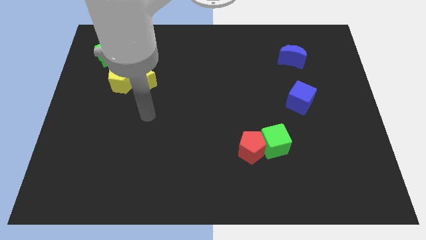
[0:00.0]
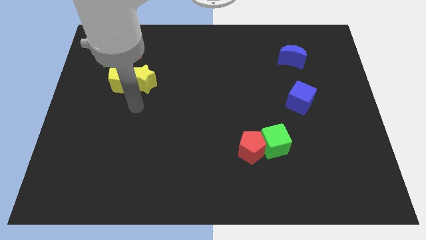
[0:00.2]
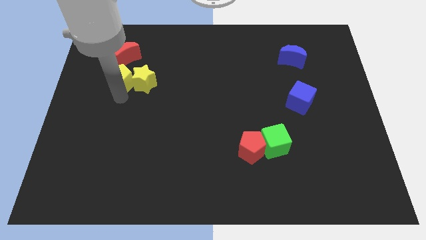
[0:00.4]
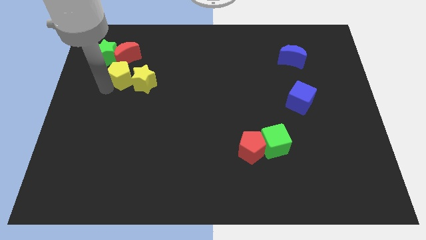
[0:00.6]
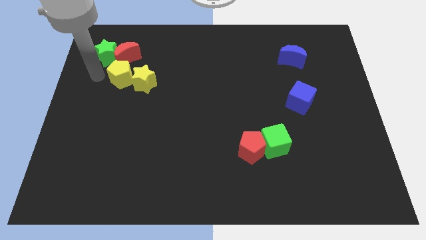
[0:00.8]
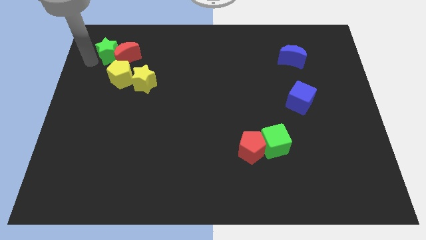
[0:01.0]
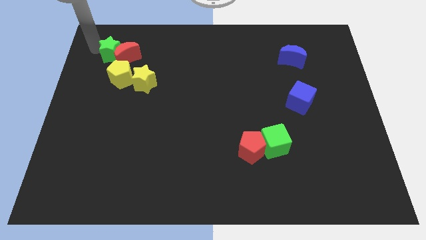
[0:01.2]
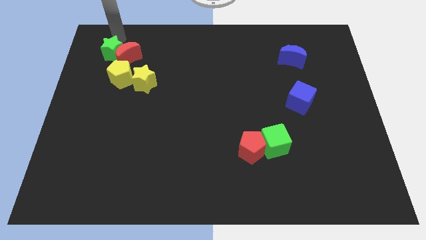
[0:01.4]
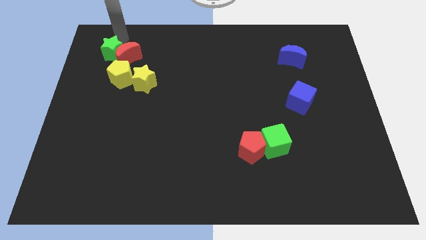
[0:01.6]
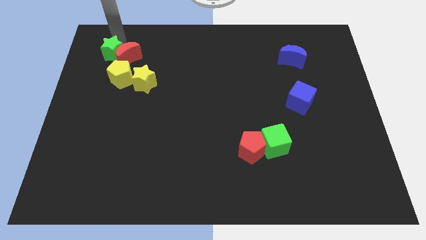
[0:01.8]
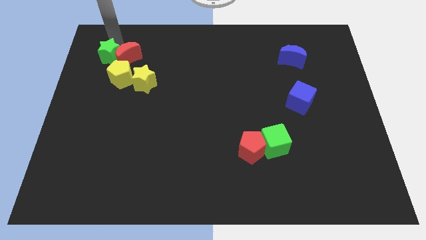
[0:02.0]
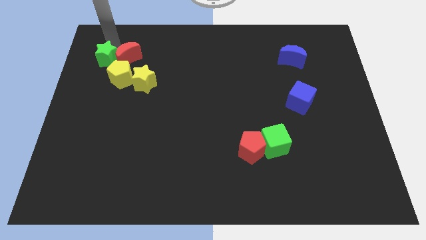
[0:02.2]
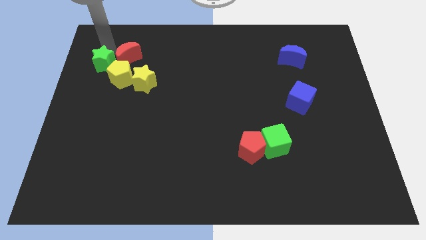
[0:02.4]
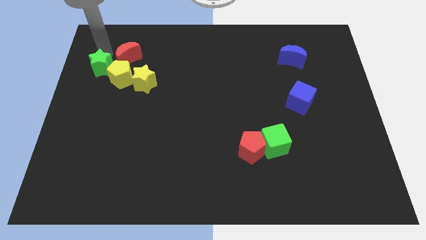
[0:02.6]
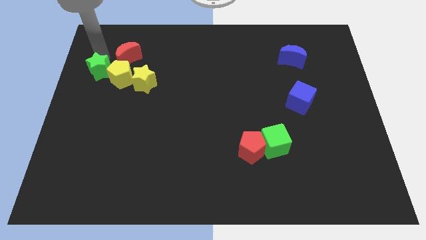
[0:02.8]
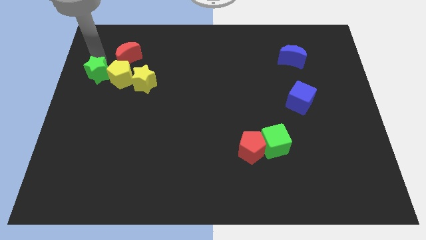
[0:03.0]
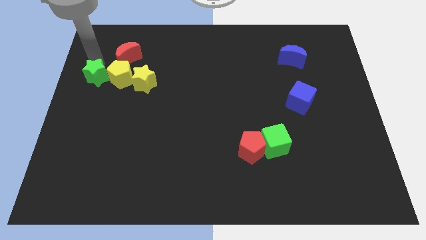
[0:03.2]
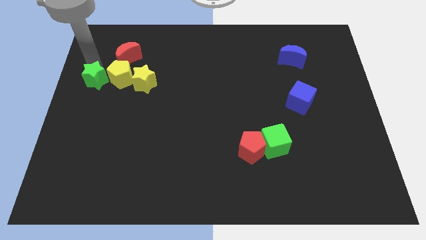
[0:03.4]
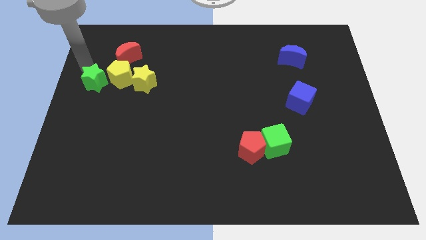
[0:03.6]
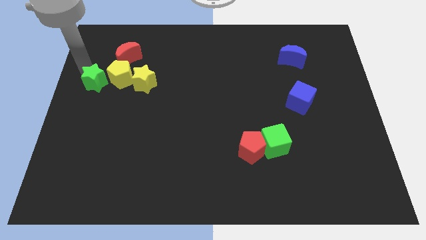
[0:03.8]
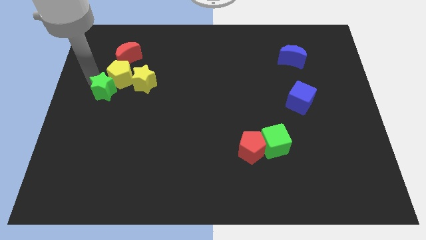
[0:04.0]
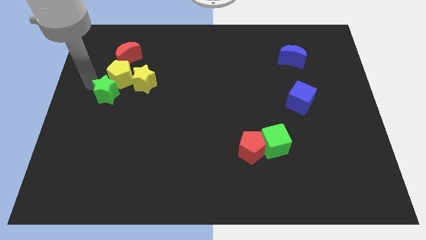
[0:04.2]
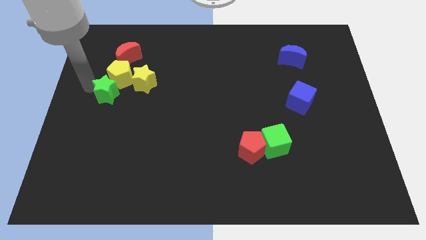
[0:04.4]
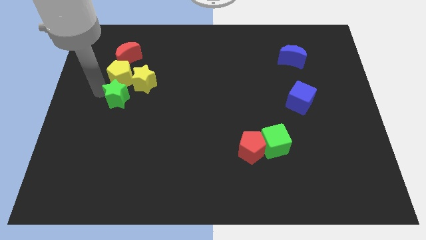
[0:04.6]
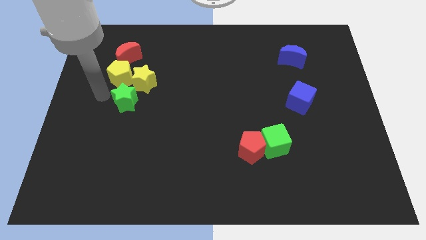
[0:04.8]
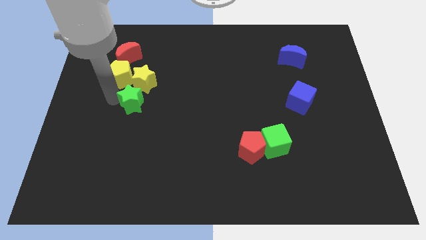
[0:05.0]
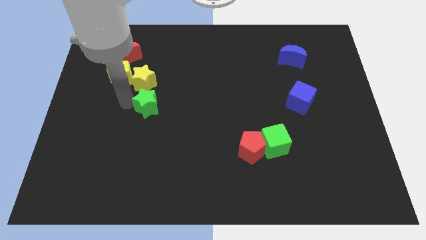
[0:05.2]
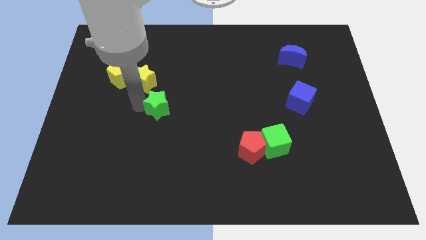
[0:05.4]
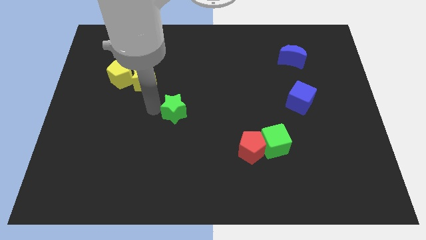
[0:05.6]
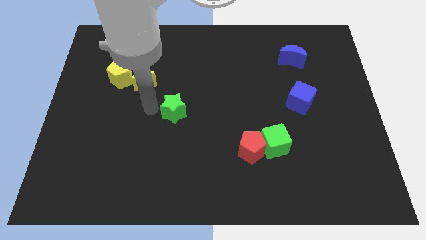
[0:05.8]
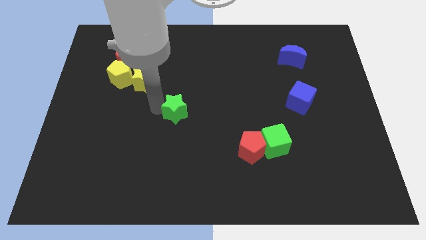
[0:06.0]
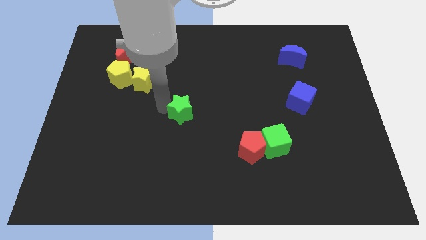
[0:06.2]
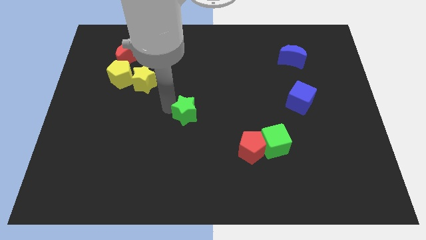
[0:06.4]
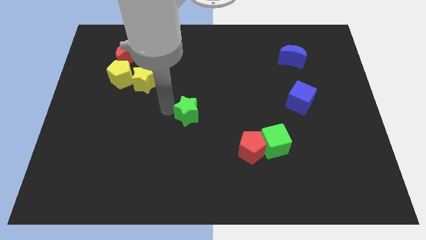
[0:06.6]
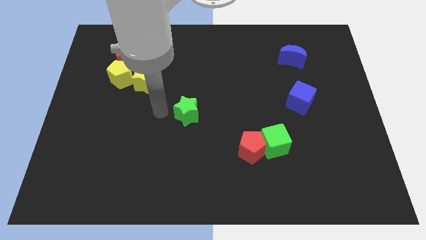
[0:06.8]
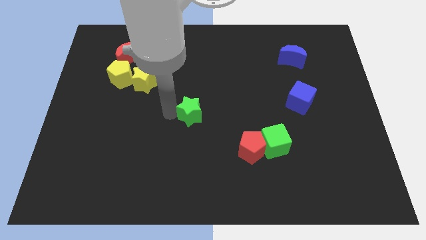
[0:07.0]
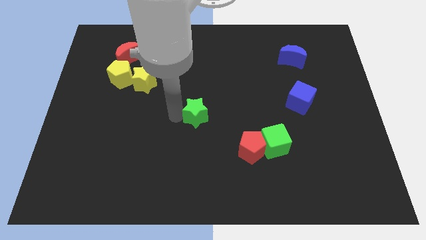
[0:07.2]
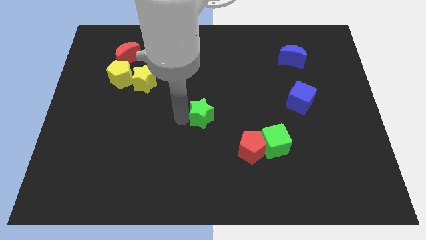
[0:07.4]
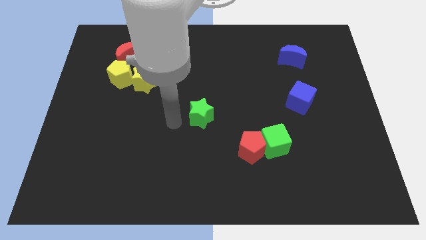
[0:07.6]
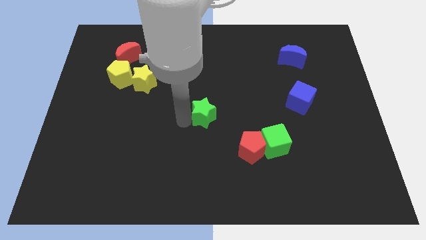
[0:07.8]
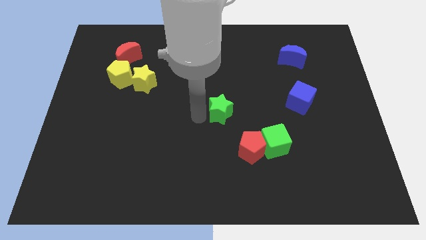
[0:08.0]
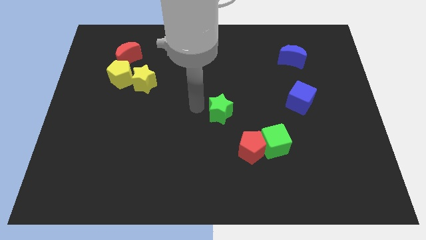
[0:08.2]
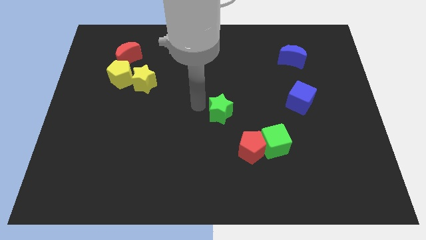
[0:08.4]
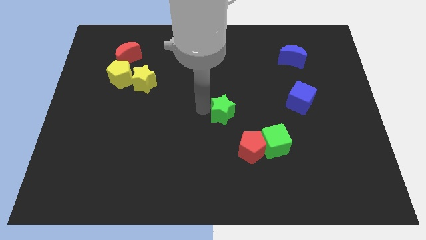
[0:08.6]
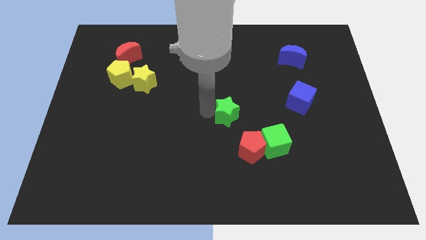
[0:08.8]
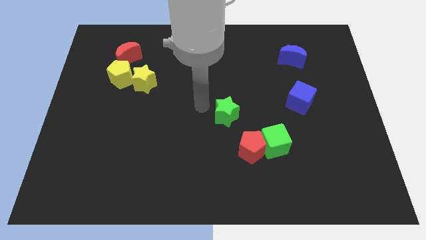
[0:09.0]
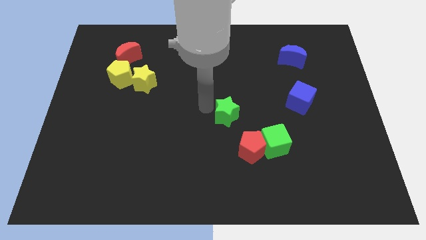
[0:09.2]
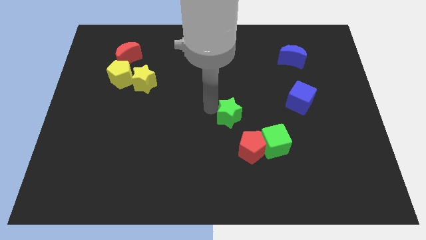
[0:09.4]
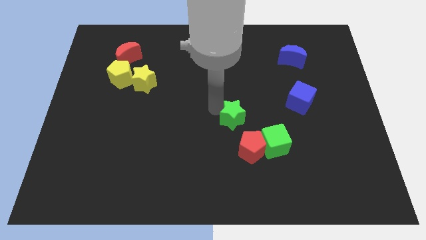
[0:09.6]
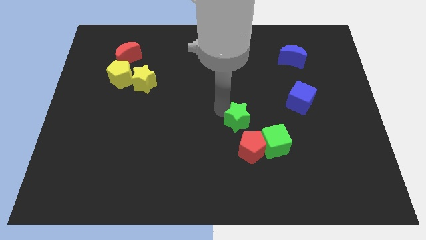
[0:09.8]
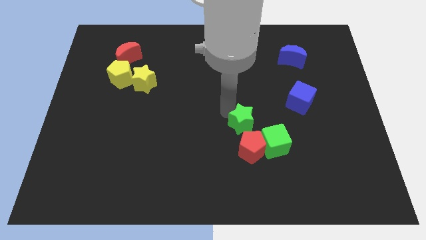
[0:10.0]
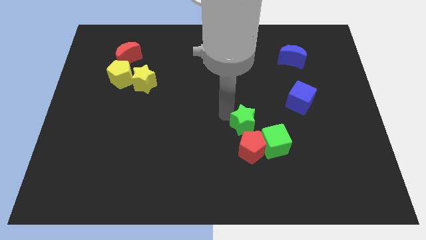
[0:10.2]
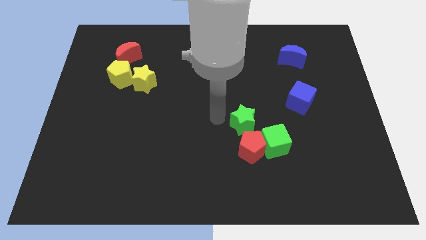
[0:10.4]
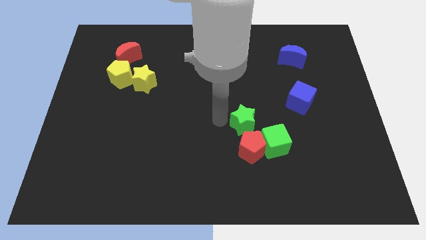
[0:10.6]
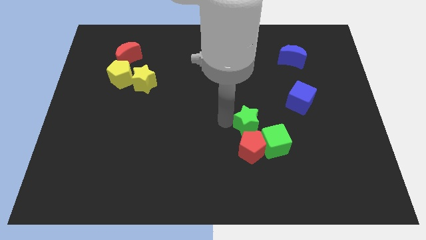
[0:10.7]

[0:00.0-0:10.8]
slide the green star diagonally up and to the right of the red pentagon

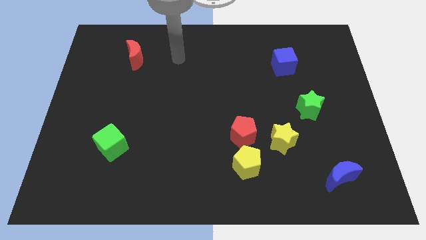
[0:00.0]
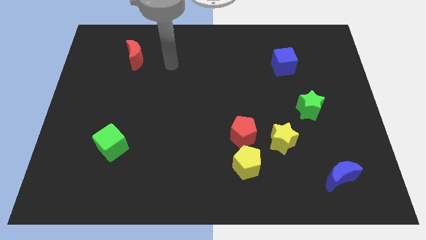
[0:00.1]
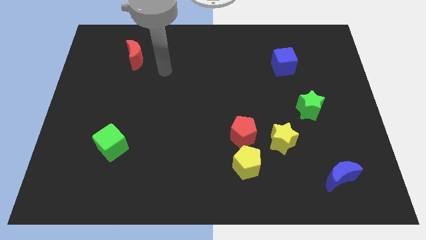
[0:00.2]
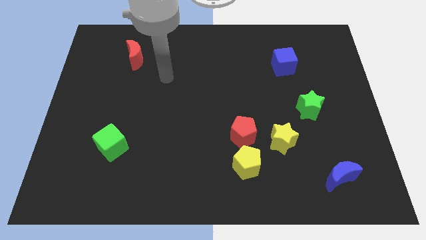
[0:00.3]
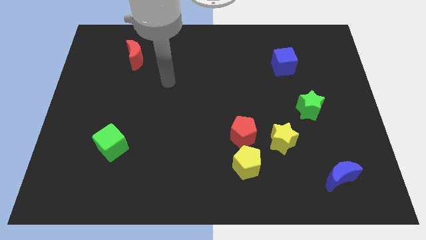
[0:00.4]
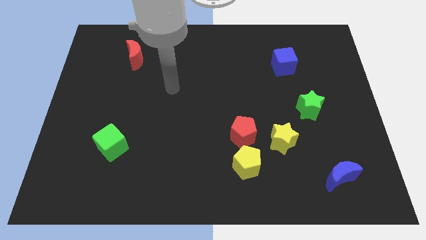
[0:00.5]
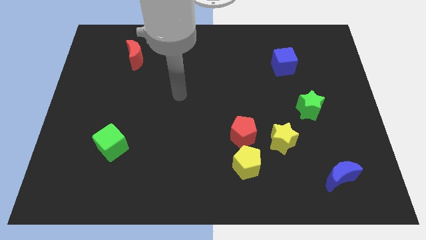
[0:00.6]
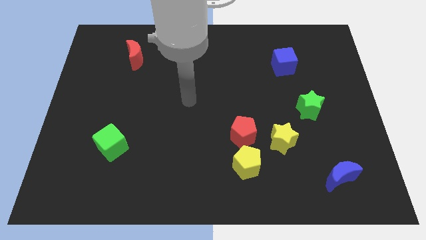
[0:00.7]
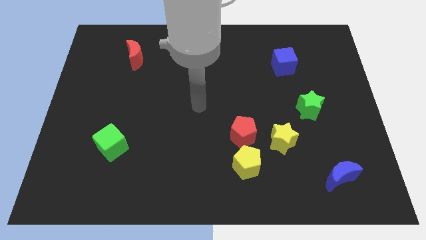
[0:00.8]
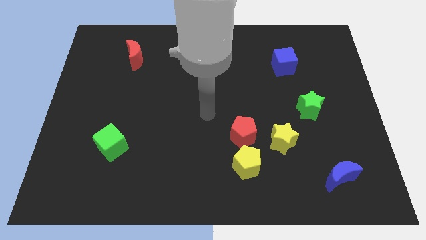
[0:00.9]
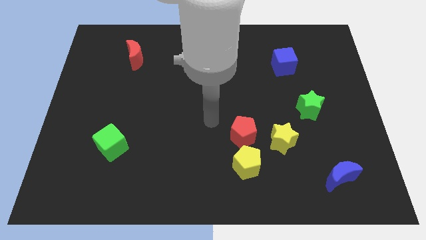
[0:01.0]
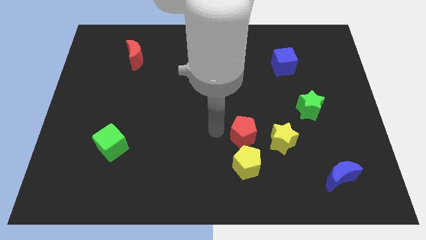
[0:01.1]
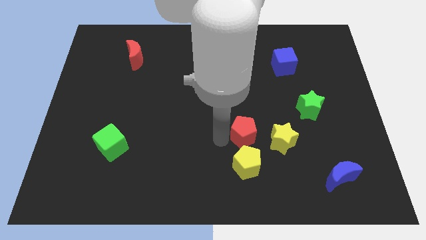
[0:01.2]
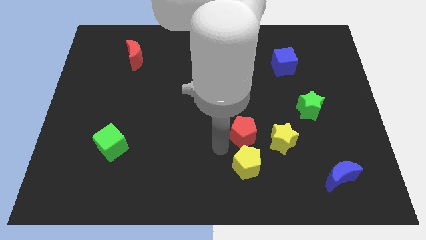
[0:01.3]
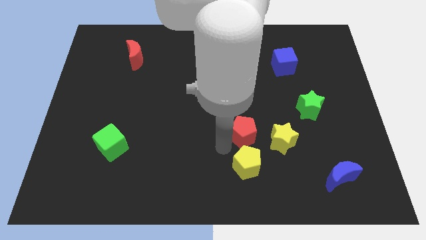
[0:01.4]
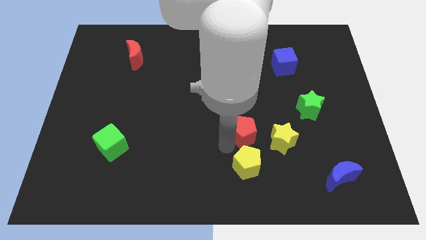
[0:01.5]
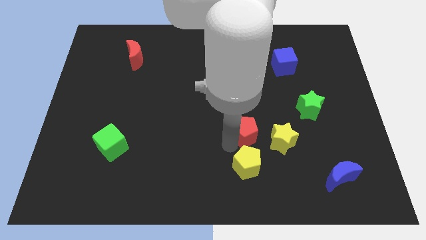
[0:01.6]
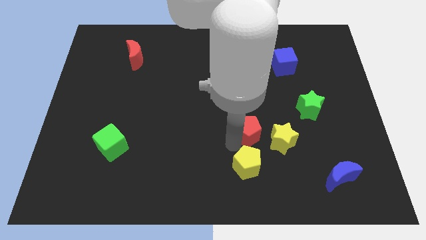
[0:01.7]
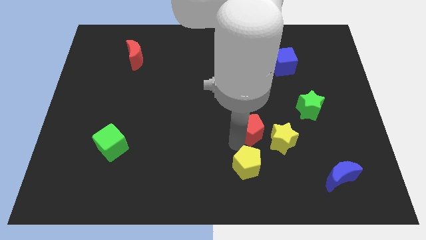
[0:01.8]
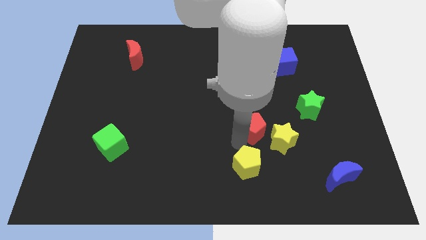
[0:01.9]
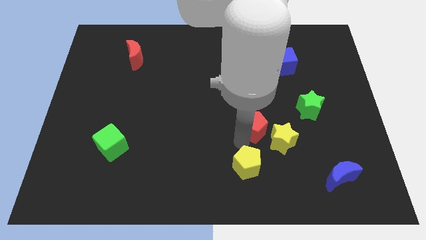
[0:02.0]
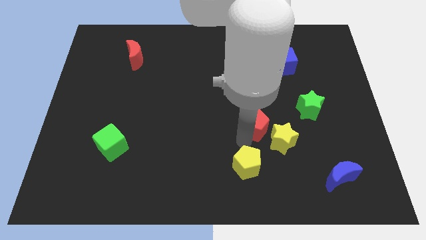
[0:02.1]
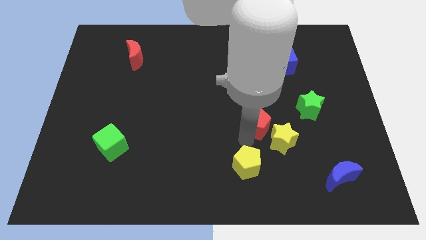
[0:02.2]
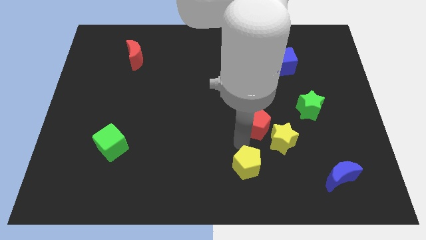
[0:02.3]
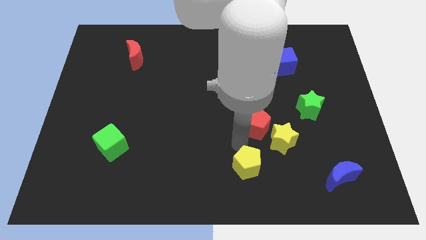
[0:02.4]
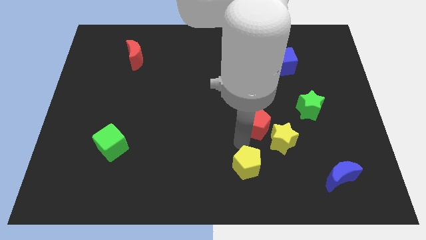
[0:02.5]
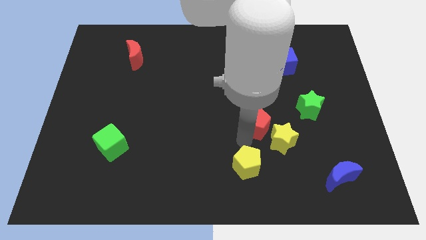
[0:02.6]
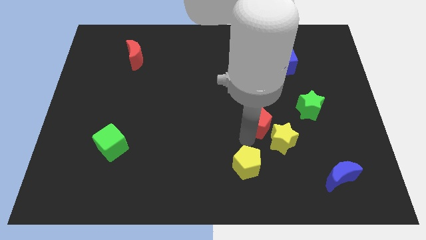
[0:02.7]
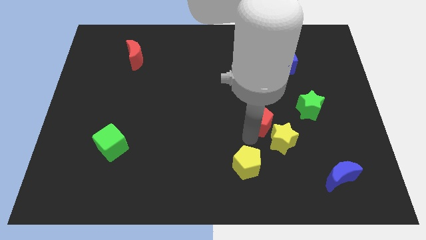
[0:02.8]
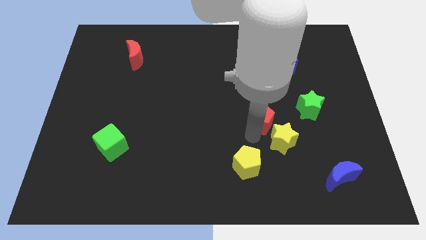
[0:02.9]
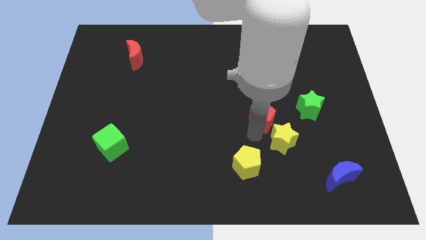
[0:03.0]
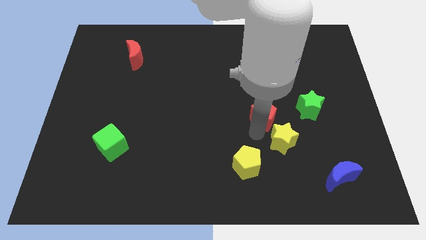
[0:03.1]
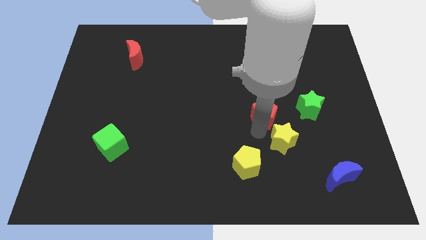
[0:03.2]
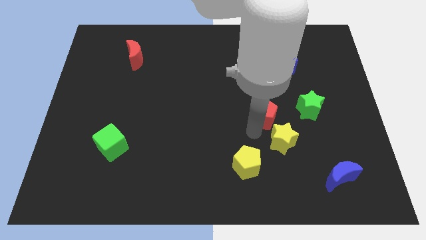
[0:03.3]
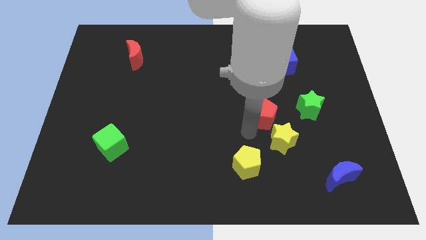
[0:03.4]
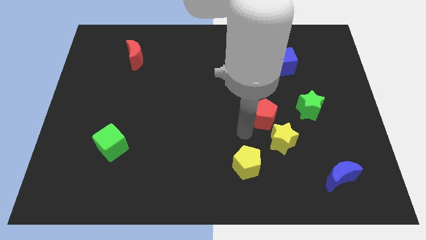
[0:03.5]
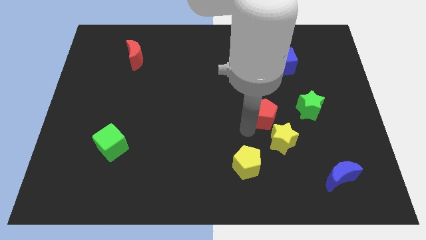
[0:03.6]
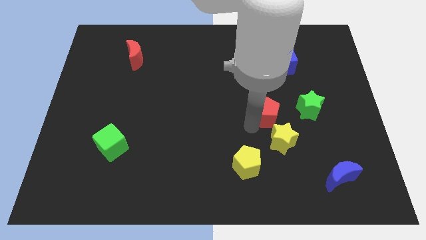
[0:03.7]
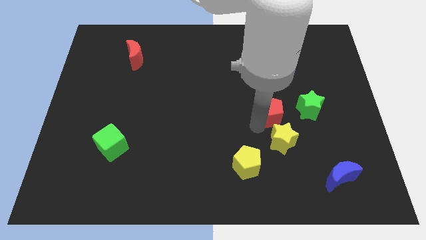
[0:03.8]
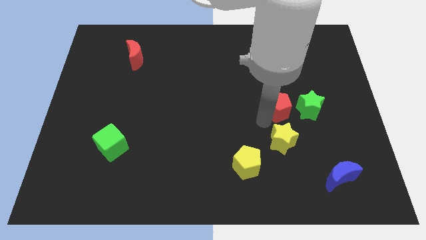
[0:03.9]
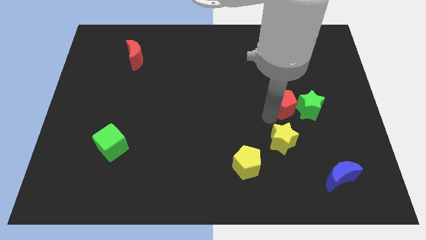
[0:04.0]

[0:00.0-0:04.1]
slide the red pentagon to the top left of the green star
